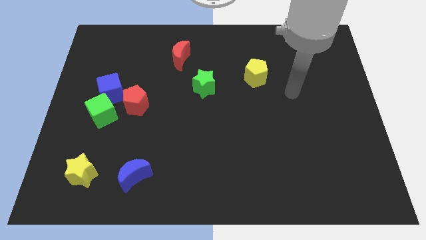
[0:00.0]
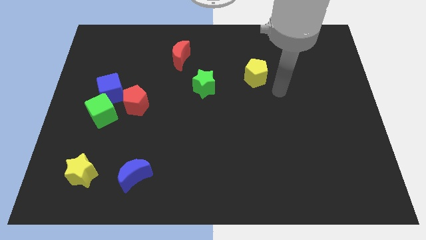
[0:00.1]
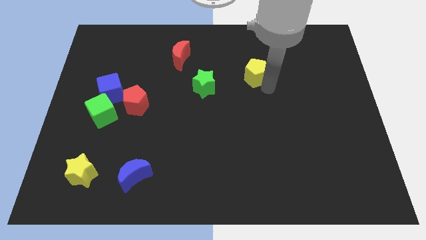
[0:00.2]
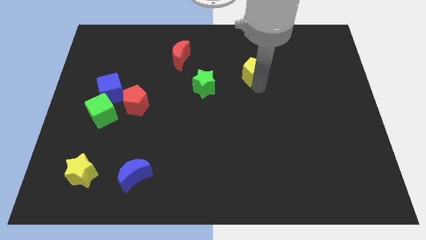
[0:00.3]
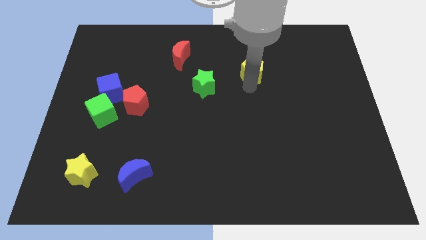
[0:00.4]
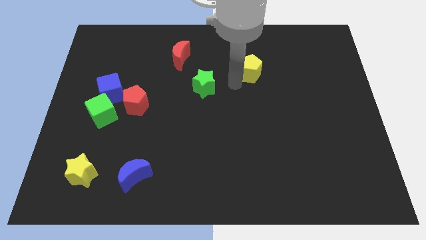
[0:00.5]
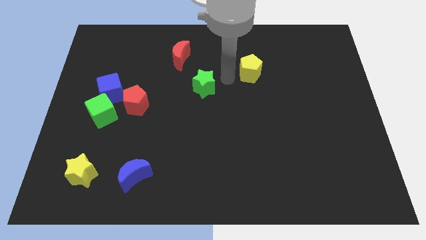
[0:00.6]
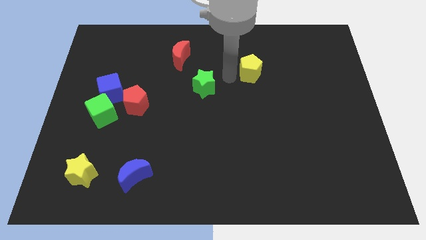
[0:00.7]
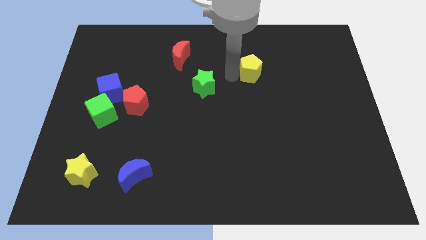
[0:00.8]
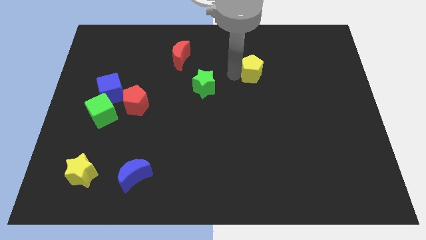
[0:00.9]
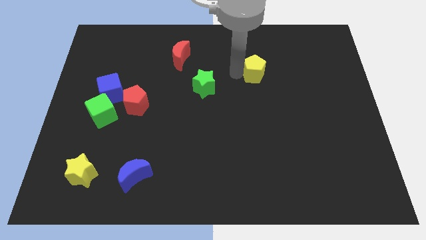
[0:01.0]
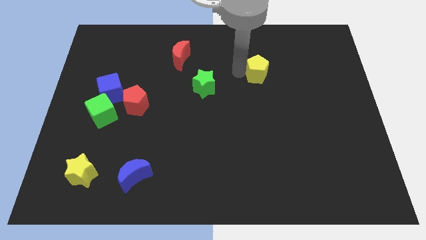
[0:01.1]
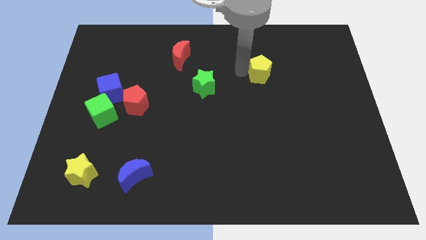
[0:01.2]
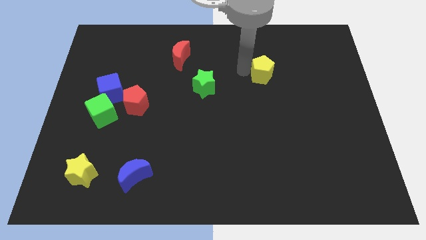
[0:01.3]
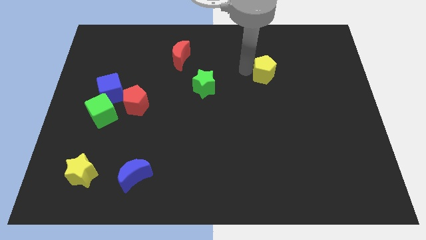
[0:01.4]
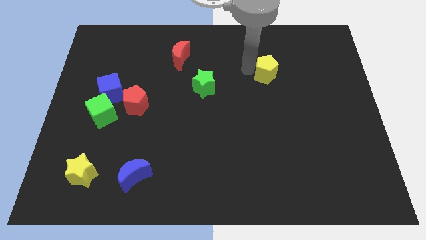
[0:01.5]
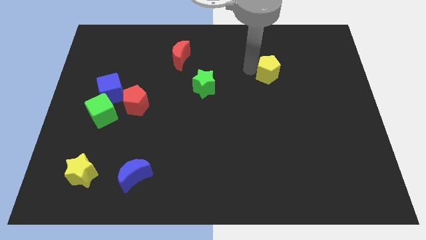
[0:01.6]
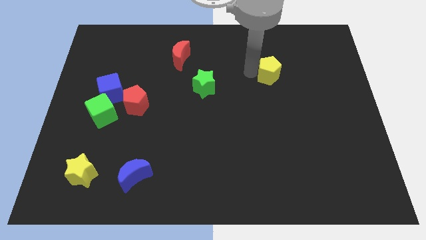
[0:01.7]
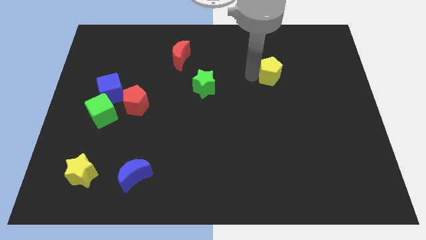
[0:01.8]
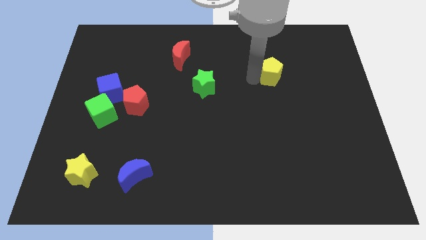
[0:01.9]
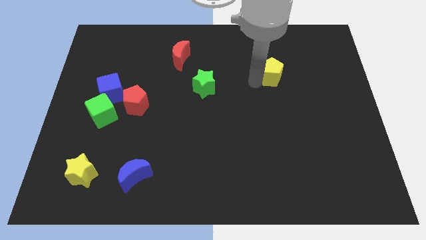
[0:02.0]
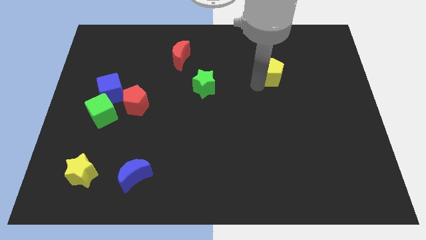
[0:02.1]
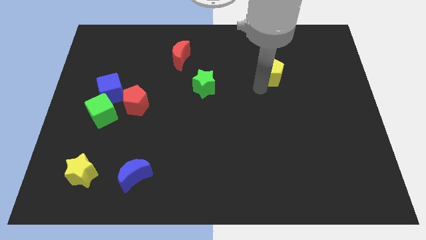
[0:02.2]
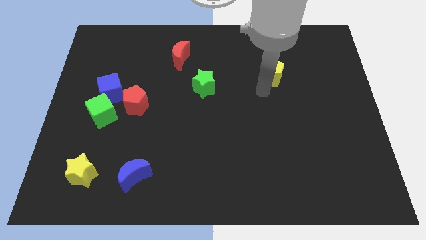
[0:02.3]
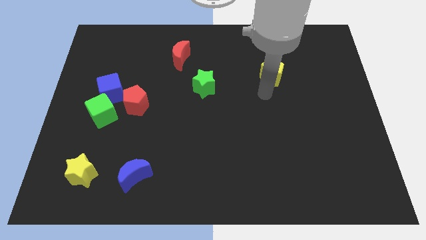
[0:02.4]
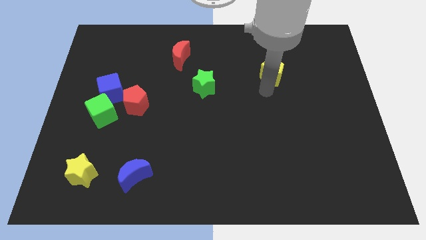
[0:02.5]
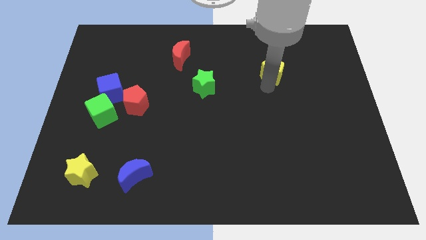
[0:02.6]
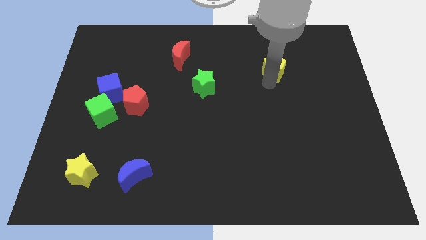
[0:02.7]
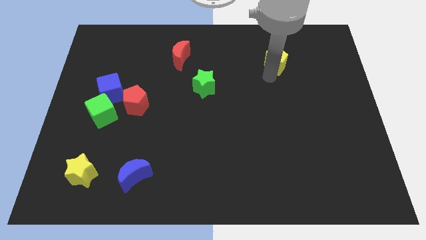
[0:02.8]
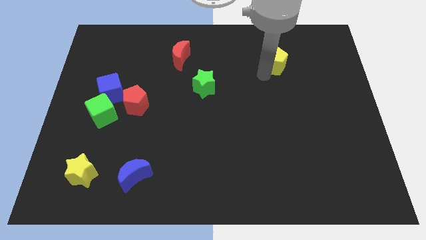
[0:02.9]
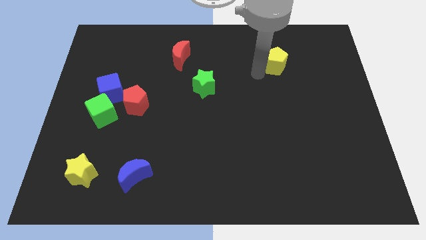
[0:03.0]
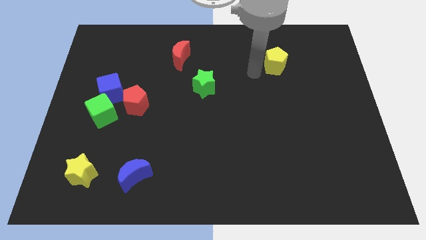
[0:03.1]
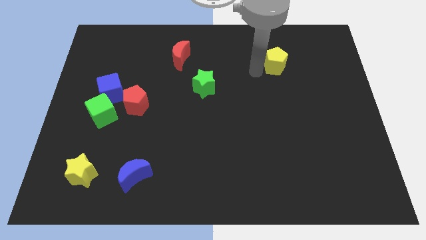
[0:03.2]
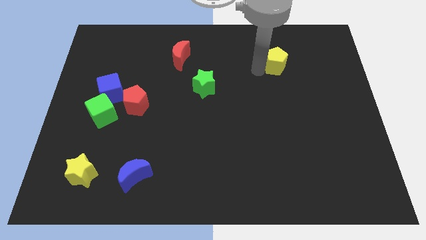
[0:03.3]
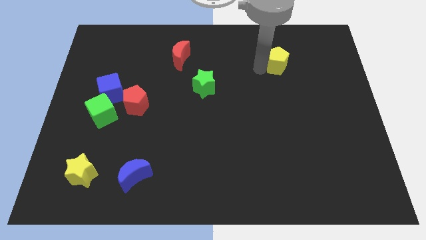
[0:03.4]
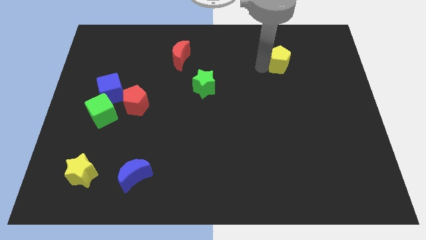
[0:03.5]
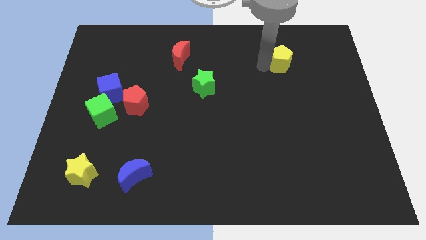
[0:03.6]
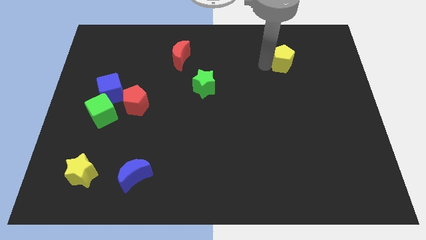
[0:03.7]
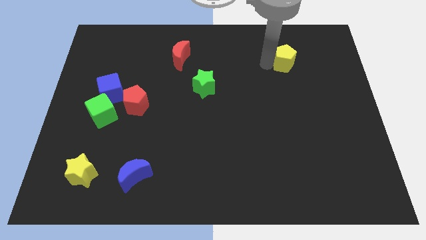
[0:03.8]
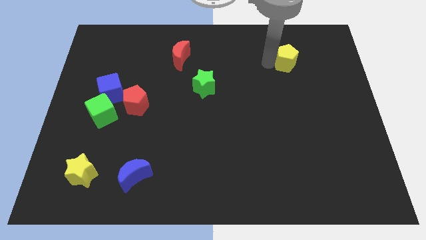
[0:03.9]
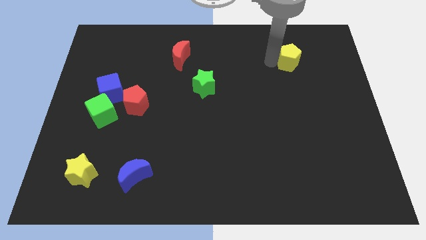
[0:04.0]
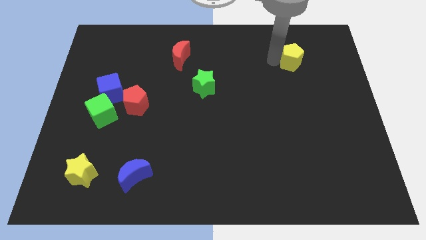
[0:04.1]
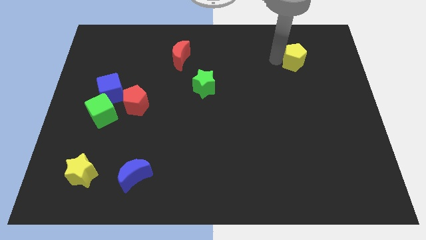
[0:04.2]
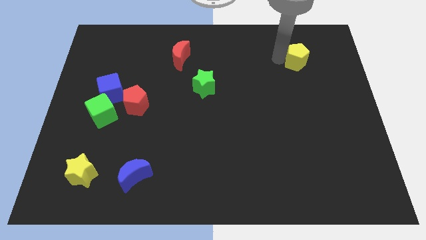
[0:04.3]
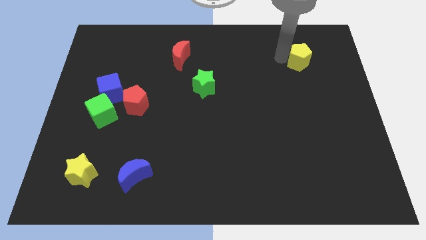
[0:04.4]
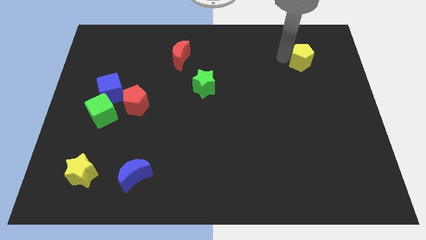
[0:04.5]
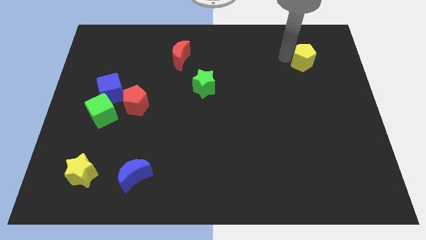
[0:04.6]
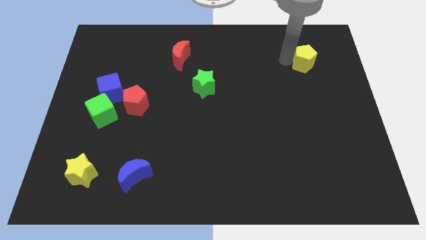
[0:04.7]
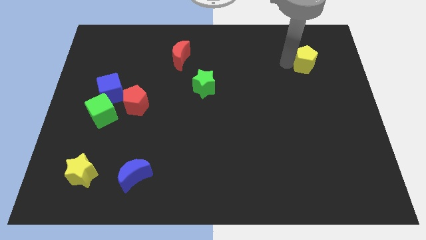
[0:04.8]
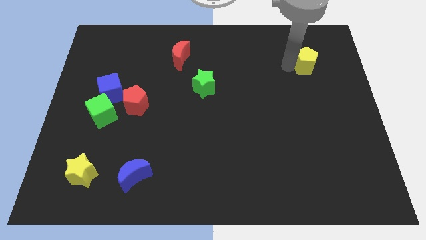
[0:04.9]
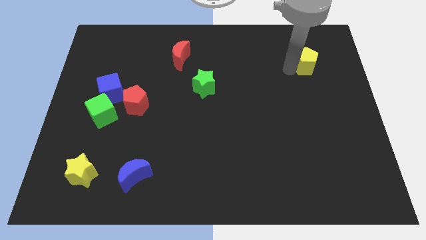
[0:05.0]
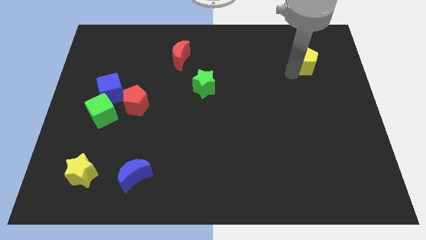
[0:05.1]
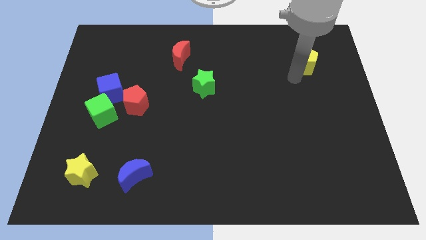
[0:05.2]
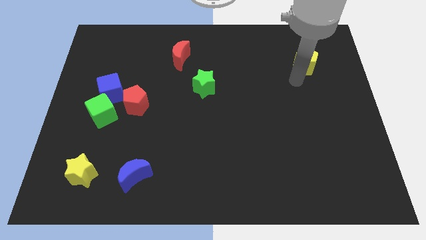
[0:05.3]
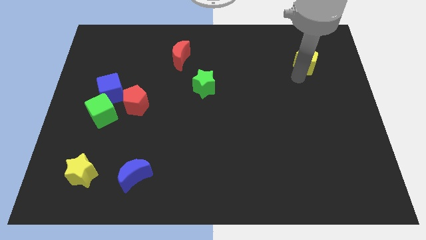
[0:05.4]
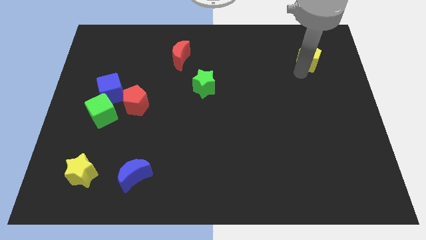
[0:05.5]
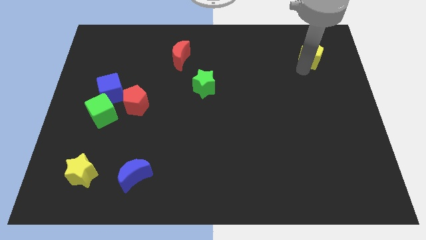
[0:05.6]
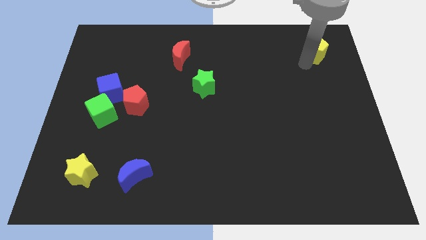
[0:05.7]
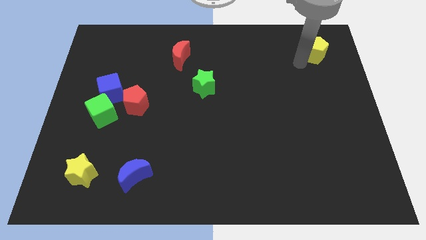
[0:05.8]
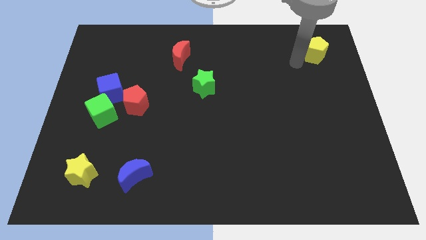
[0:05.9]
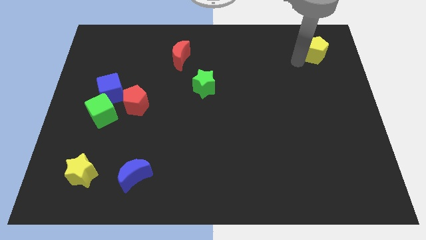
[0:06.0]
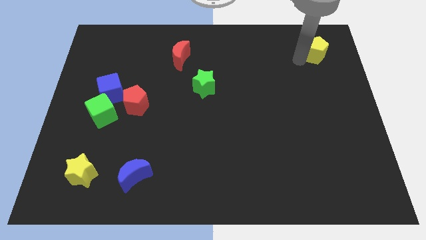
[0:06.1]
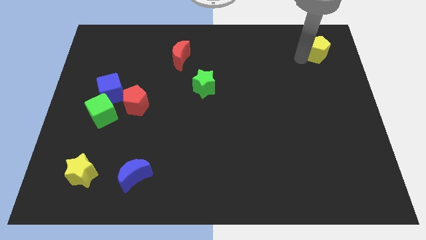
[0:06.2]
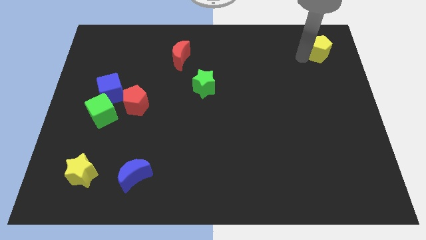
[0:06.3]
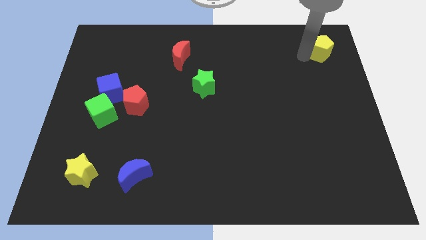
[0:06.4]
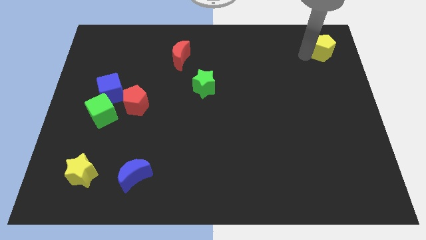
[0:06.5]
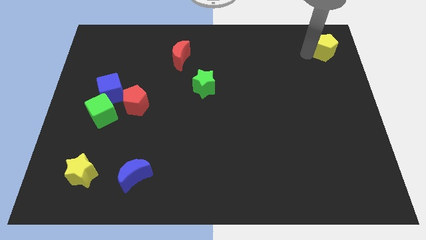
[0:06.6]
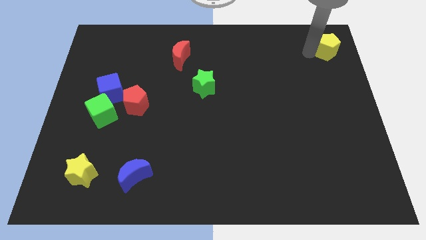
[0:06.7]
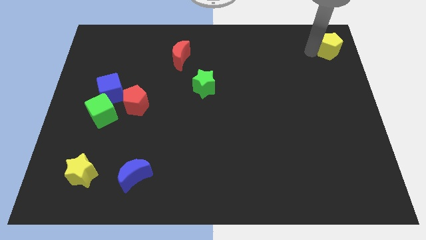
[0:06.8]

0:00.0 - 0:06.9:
move the yellow pentagon to the top right of the board

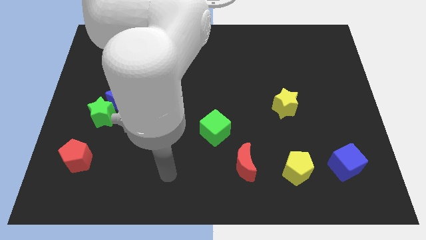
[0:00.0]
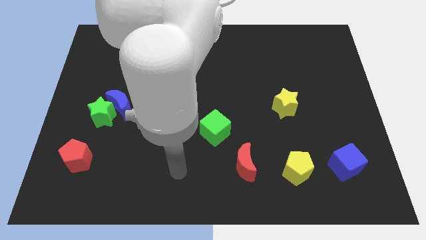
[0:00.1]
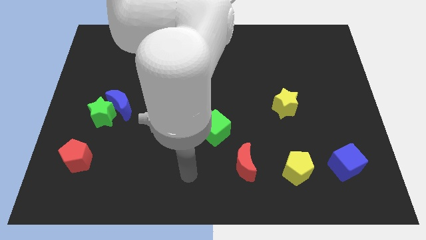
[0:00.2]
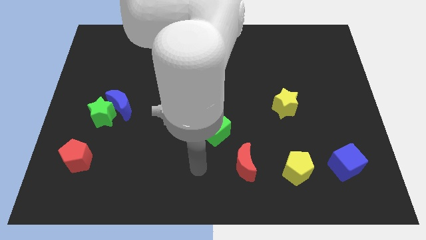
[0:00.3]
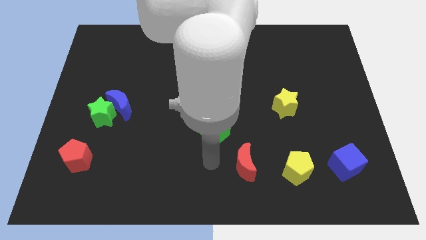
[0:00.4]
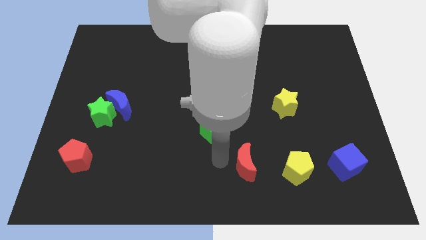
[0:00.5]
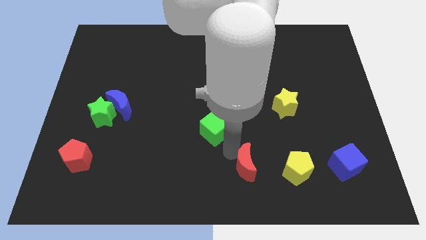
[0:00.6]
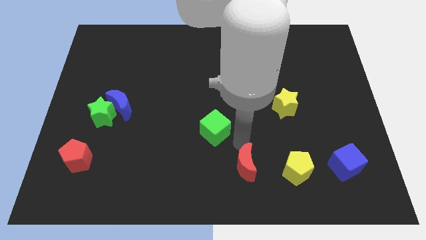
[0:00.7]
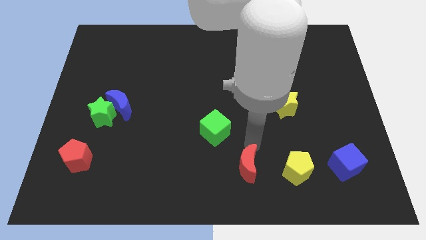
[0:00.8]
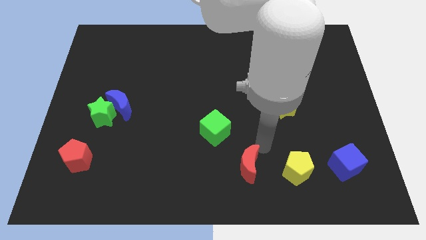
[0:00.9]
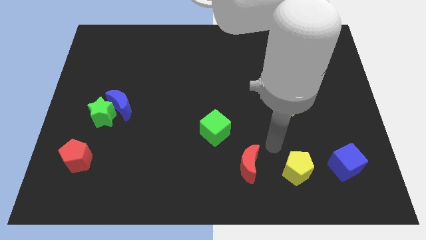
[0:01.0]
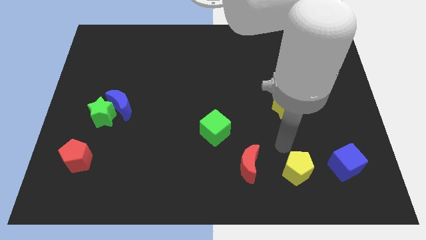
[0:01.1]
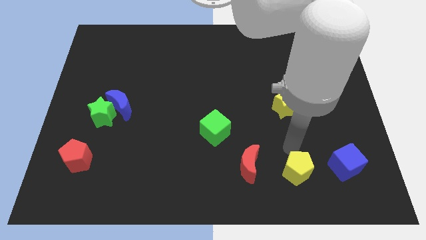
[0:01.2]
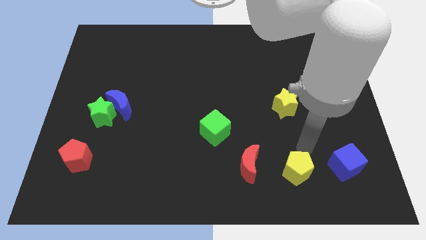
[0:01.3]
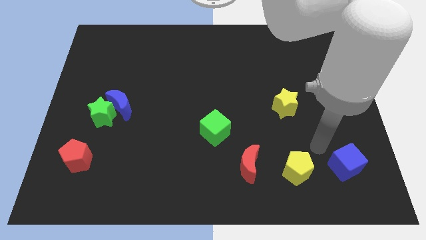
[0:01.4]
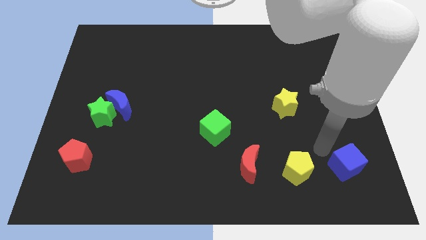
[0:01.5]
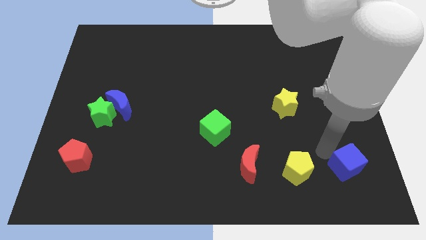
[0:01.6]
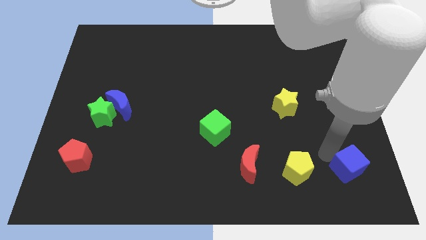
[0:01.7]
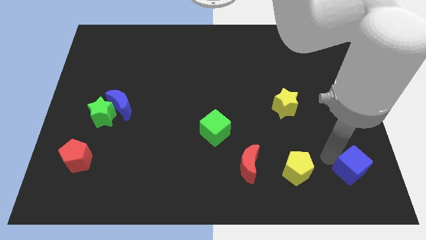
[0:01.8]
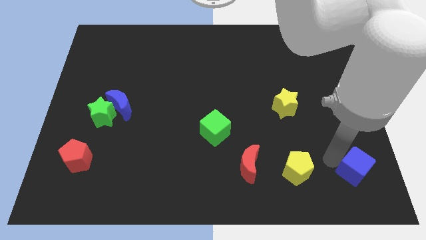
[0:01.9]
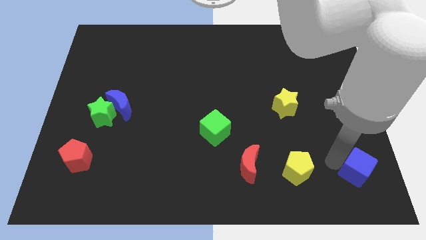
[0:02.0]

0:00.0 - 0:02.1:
push the blue cube to the bottom right corner
